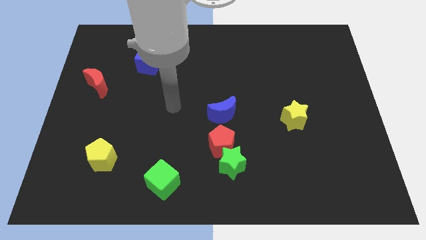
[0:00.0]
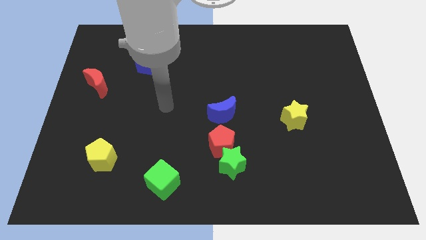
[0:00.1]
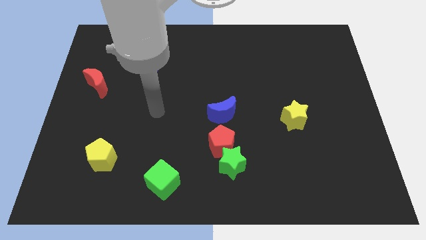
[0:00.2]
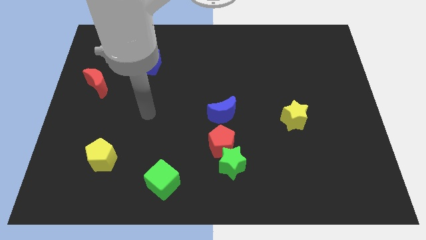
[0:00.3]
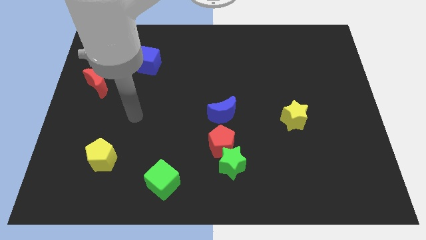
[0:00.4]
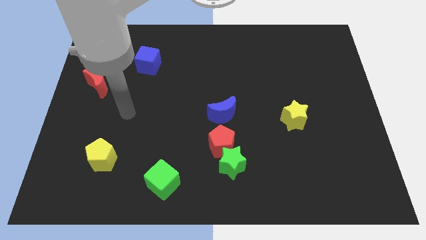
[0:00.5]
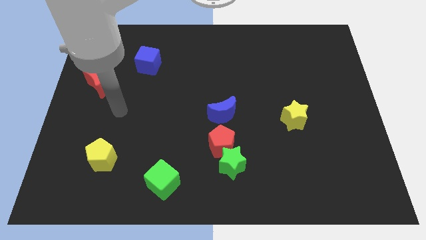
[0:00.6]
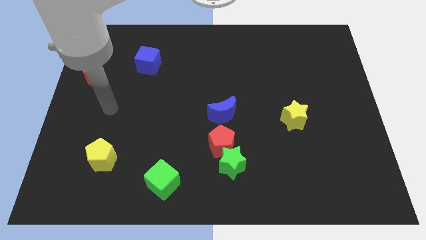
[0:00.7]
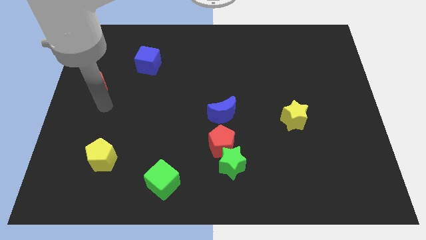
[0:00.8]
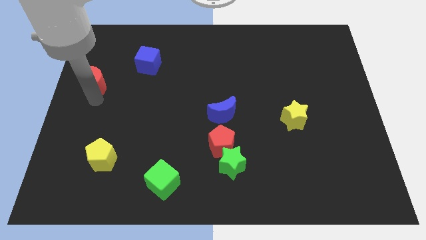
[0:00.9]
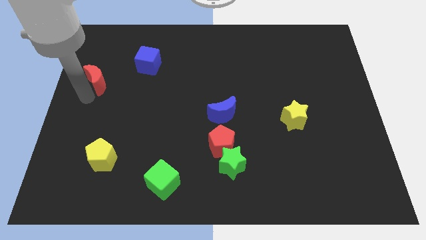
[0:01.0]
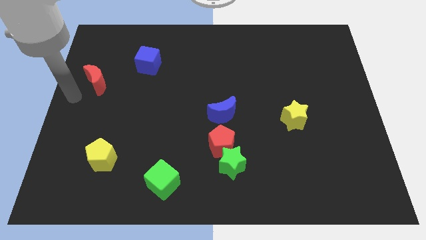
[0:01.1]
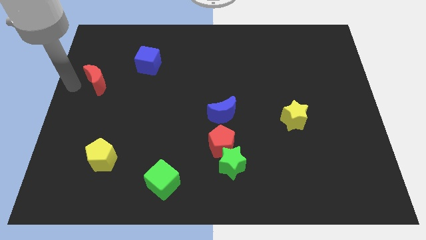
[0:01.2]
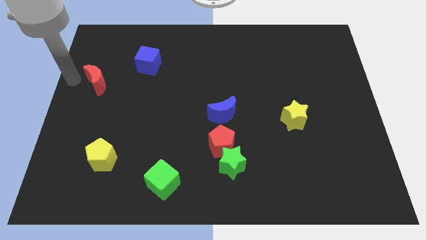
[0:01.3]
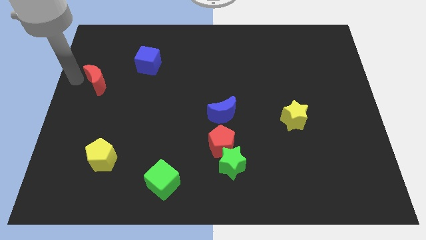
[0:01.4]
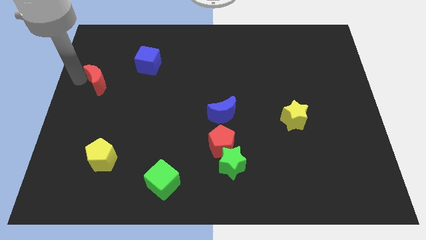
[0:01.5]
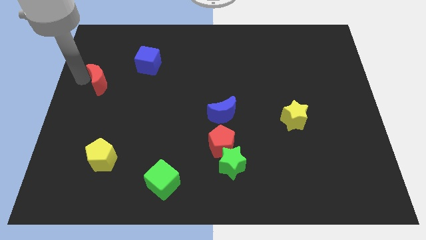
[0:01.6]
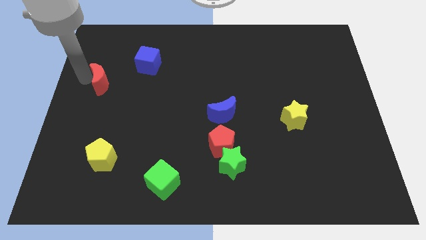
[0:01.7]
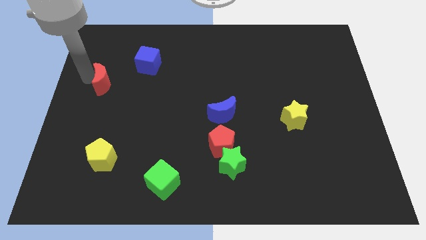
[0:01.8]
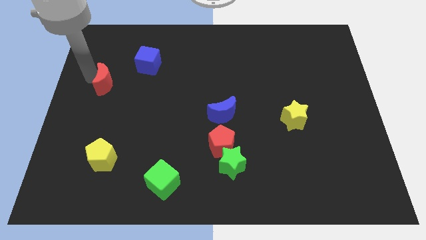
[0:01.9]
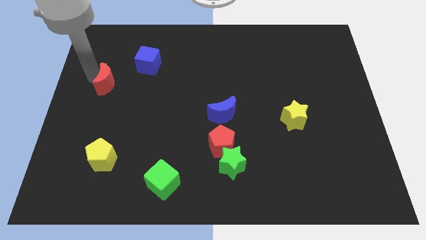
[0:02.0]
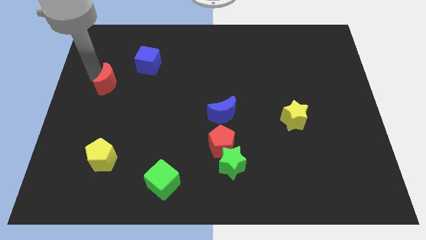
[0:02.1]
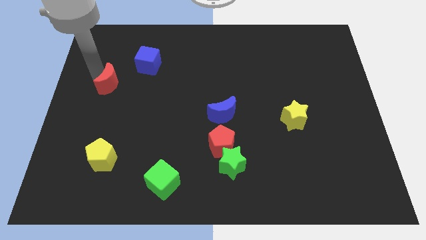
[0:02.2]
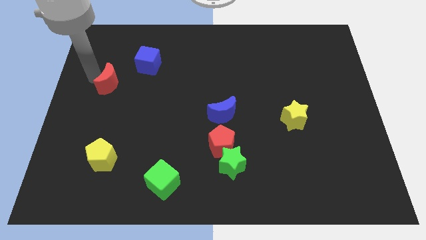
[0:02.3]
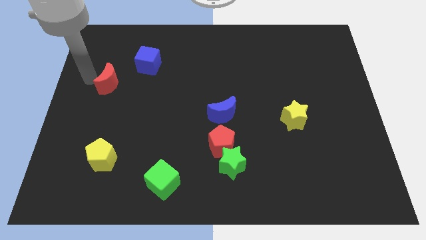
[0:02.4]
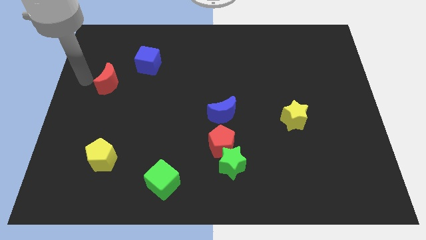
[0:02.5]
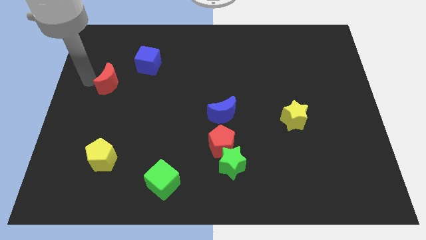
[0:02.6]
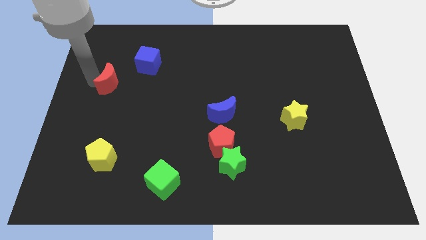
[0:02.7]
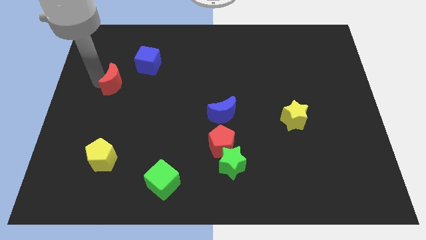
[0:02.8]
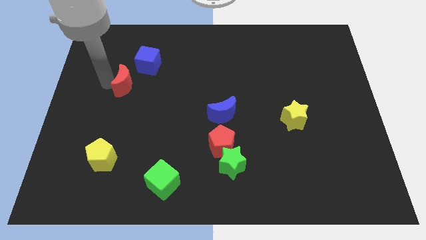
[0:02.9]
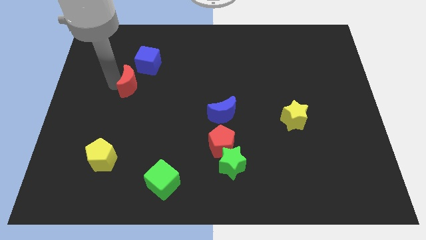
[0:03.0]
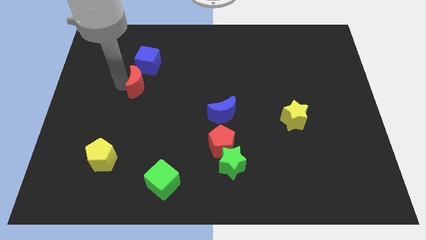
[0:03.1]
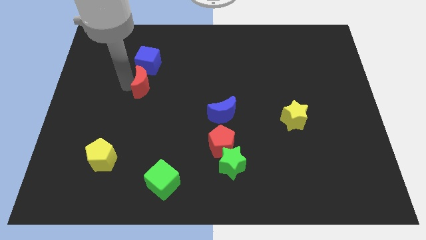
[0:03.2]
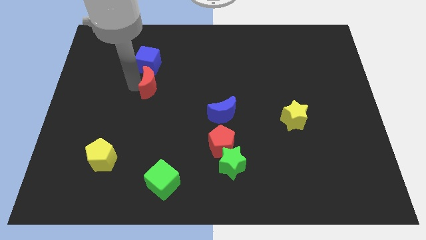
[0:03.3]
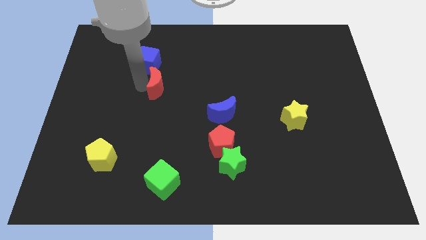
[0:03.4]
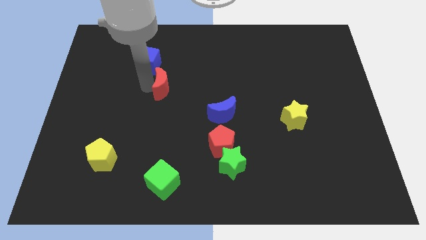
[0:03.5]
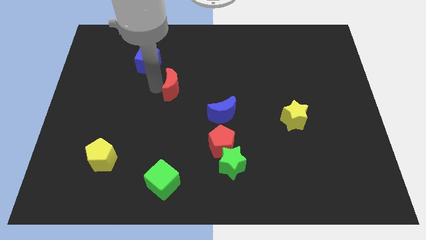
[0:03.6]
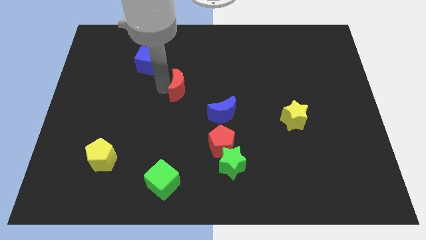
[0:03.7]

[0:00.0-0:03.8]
slide the red moon to the right

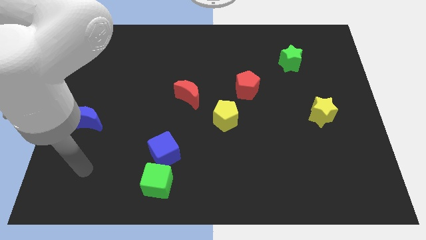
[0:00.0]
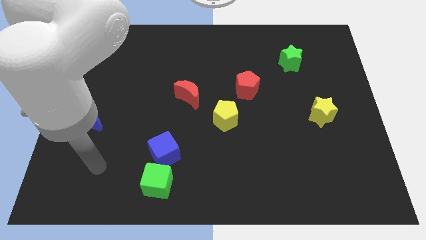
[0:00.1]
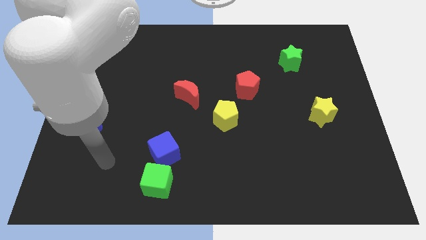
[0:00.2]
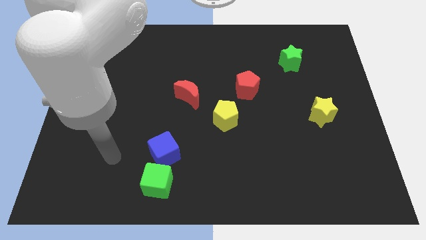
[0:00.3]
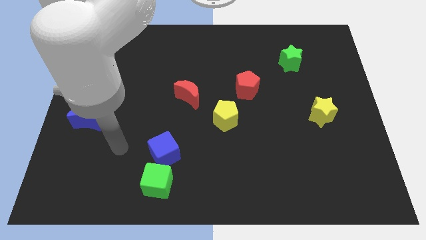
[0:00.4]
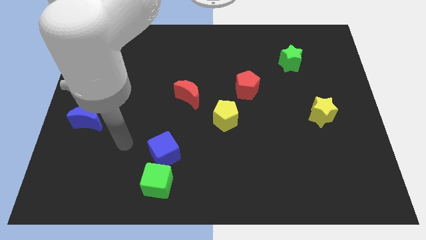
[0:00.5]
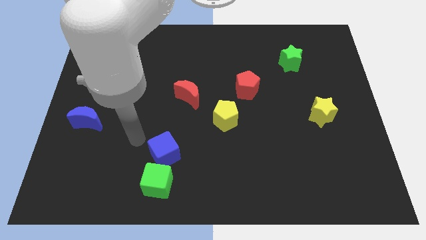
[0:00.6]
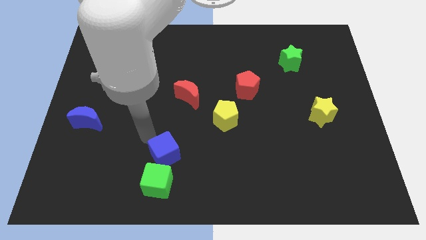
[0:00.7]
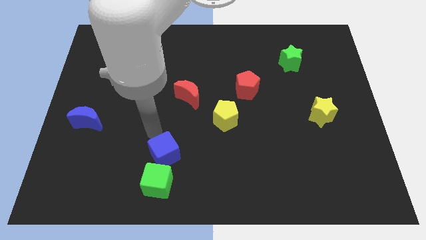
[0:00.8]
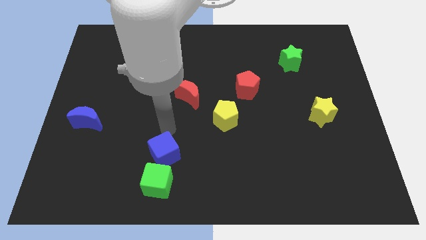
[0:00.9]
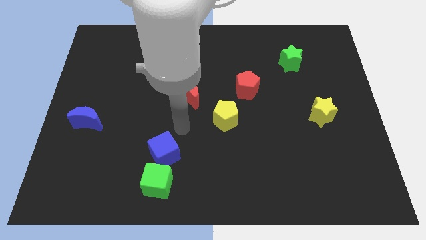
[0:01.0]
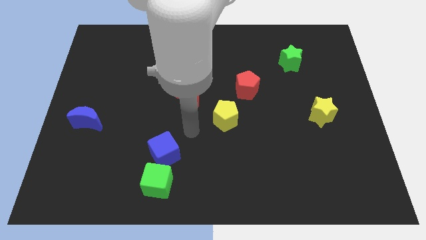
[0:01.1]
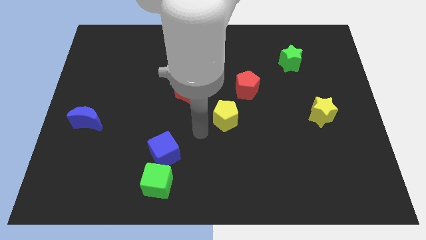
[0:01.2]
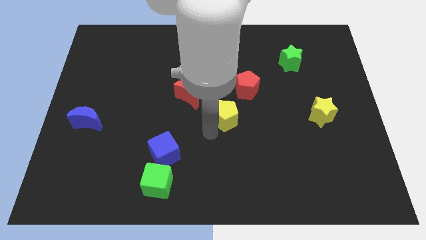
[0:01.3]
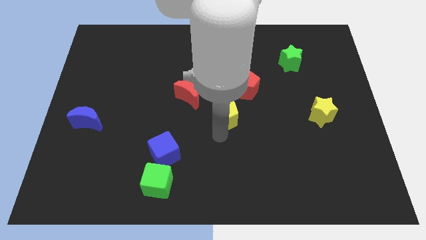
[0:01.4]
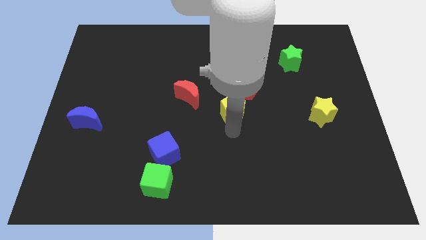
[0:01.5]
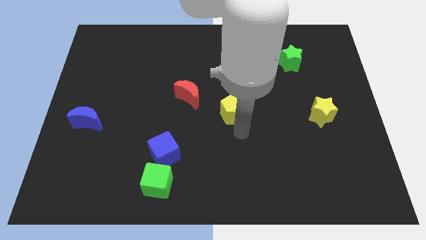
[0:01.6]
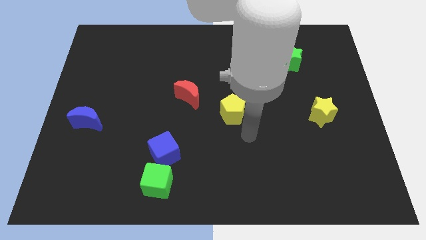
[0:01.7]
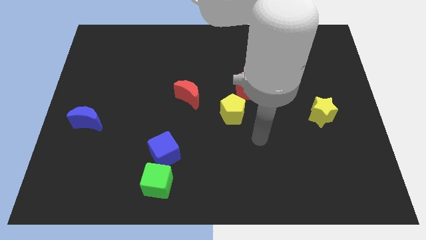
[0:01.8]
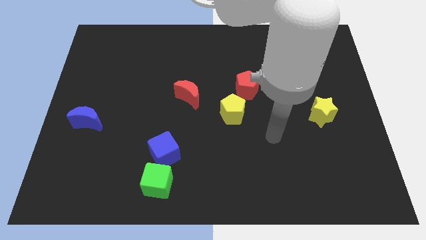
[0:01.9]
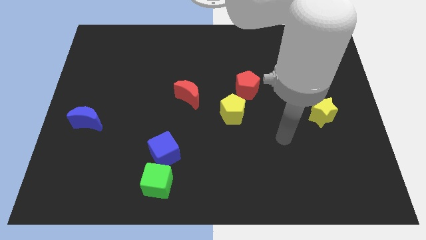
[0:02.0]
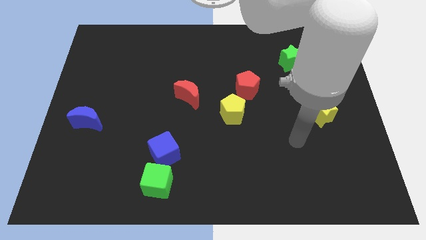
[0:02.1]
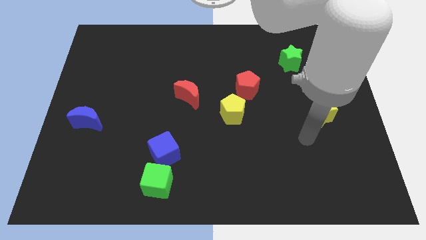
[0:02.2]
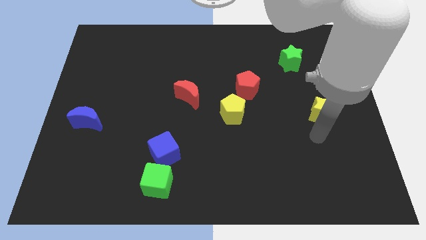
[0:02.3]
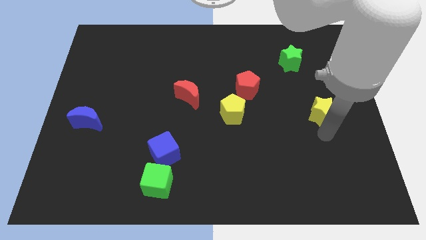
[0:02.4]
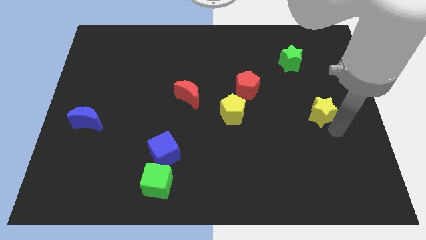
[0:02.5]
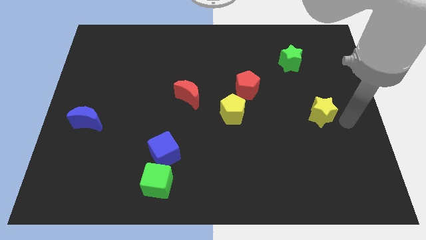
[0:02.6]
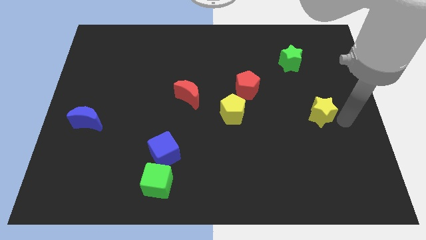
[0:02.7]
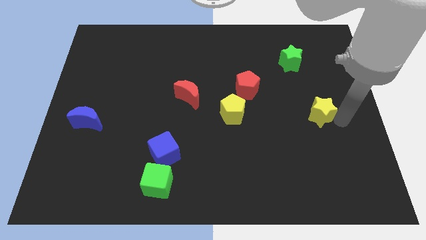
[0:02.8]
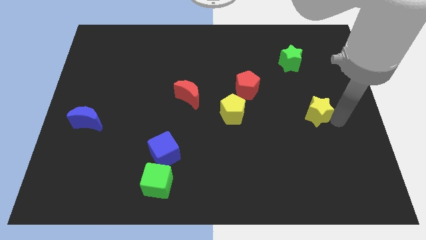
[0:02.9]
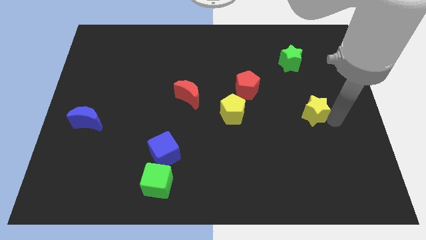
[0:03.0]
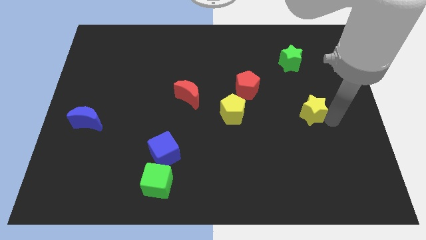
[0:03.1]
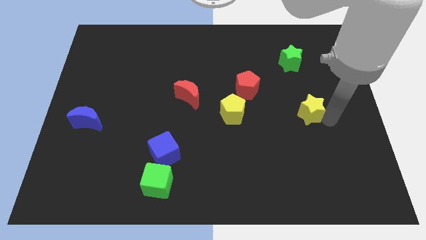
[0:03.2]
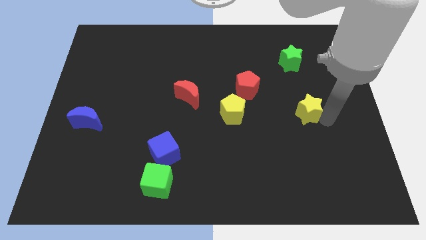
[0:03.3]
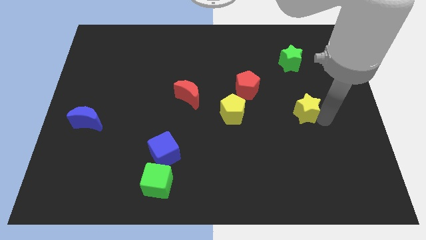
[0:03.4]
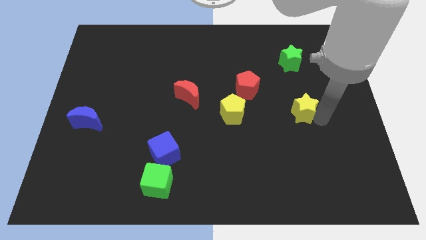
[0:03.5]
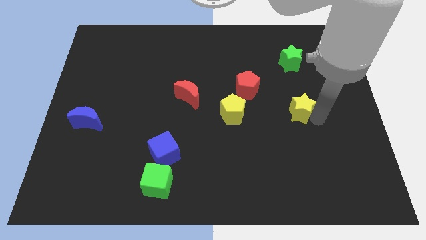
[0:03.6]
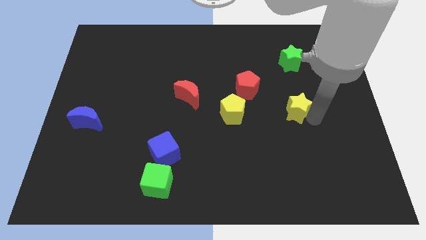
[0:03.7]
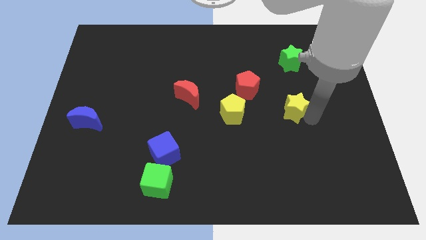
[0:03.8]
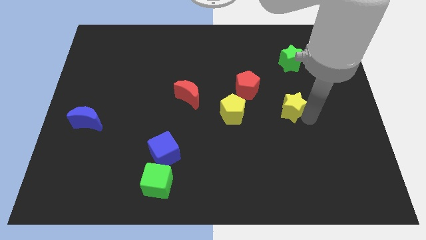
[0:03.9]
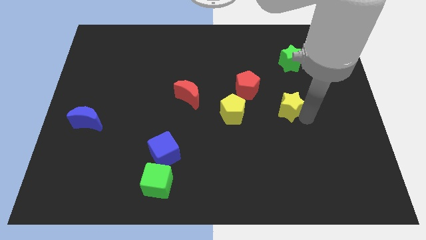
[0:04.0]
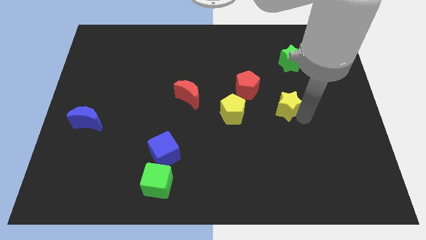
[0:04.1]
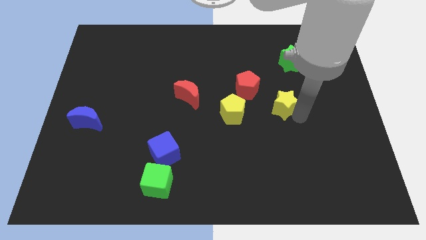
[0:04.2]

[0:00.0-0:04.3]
slightly move the yellow star diagonally upwards and to the left

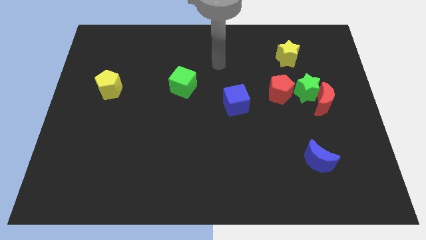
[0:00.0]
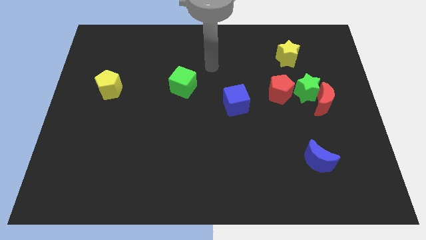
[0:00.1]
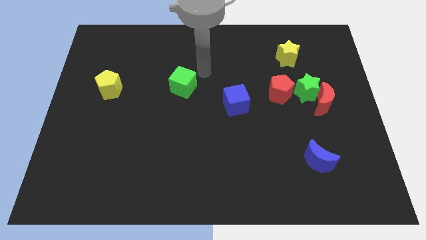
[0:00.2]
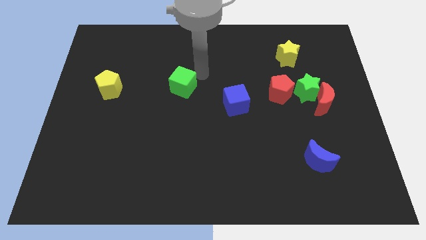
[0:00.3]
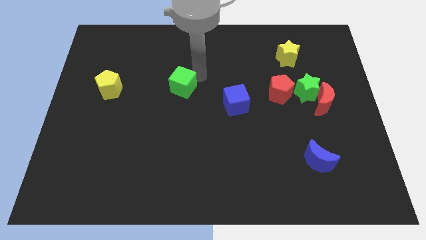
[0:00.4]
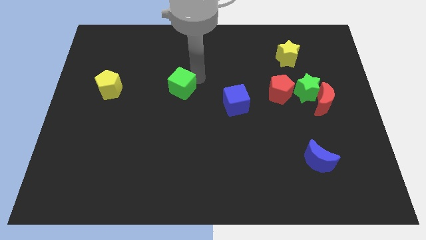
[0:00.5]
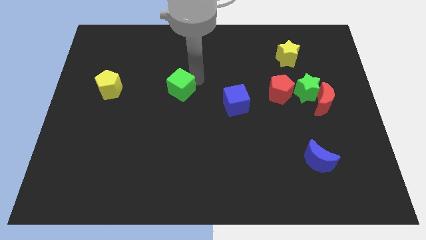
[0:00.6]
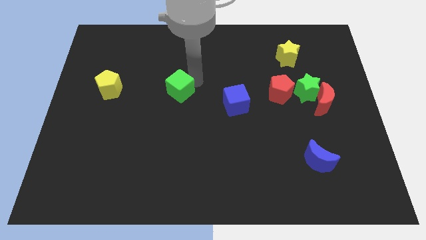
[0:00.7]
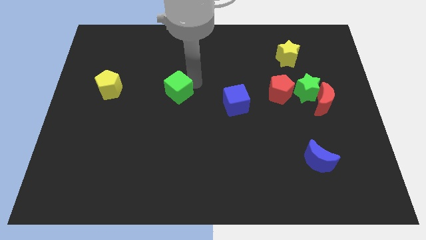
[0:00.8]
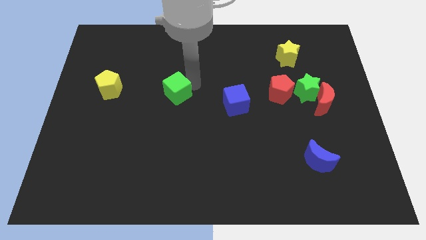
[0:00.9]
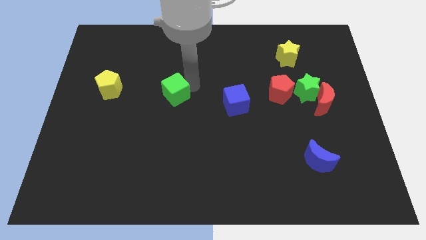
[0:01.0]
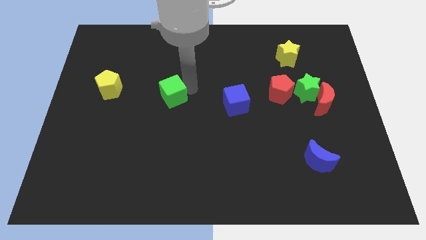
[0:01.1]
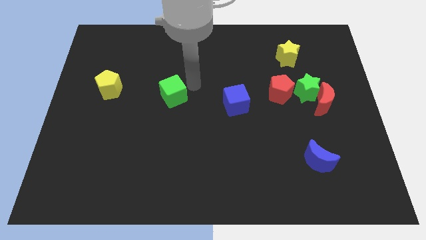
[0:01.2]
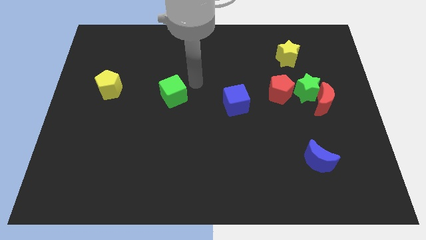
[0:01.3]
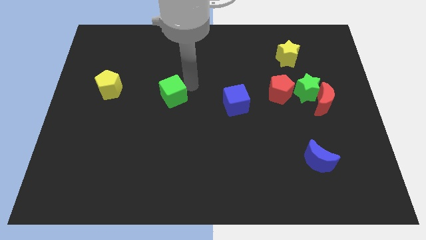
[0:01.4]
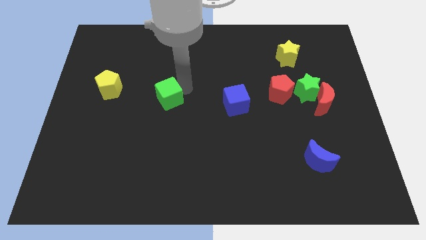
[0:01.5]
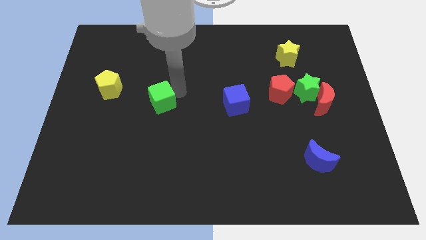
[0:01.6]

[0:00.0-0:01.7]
slide the green cube down and then left a little bit
